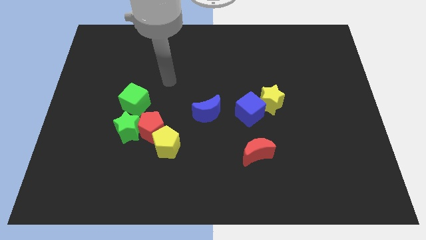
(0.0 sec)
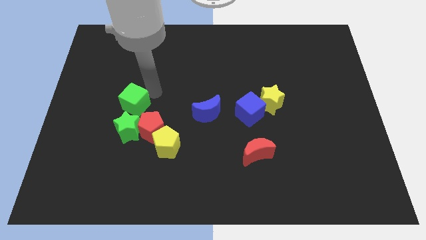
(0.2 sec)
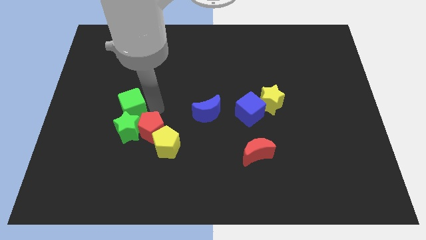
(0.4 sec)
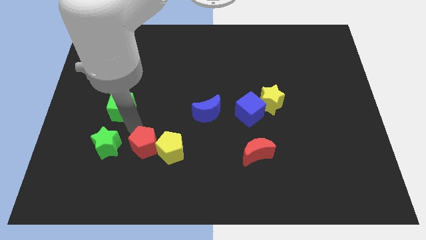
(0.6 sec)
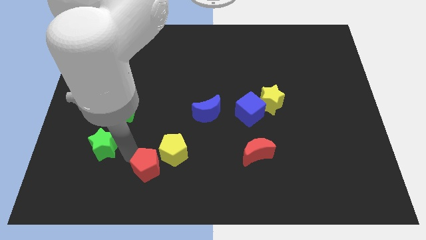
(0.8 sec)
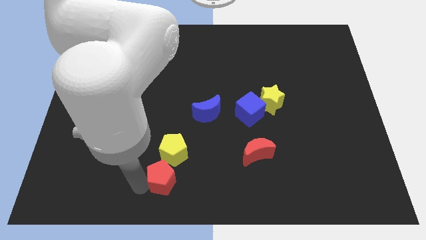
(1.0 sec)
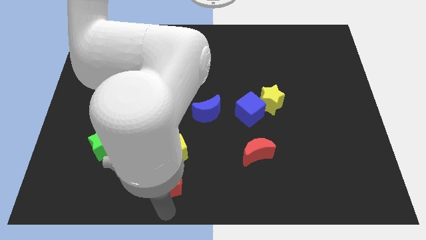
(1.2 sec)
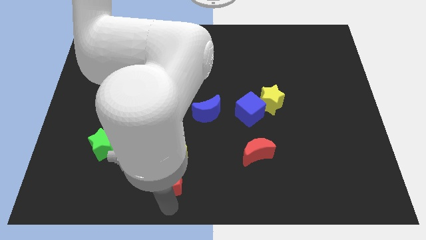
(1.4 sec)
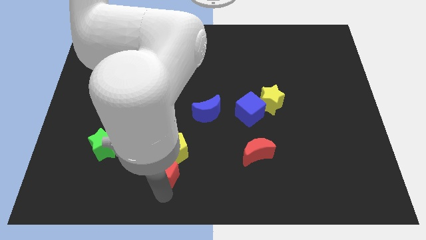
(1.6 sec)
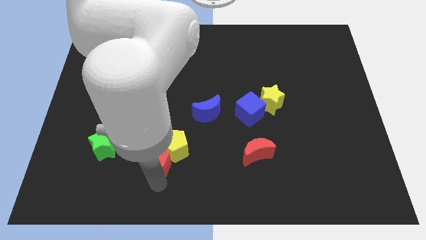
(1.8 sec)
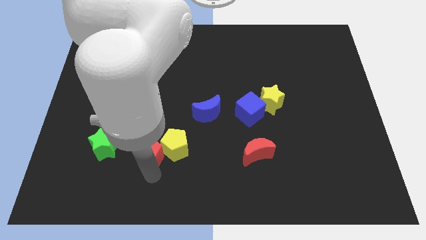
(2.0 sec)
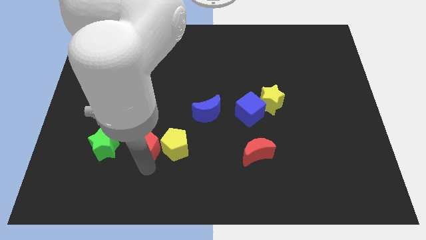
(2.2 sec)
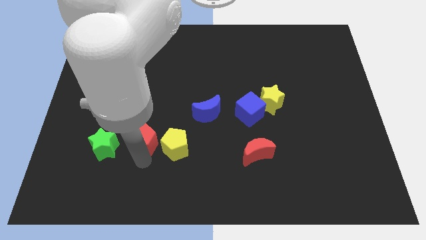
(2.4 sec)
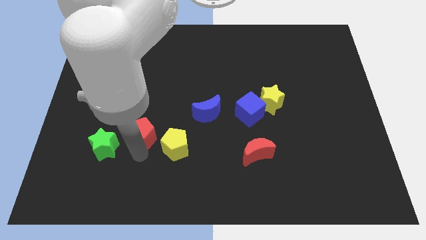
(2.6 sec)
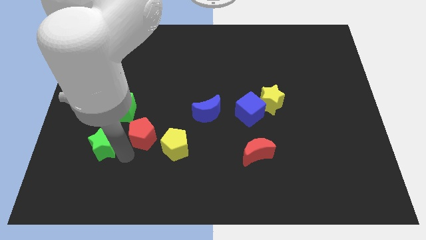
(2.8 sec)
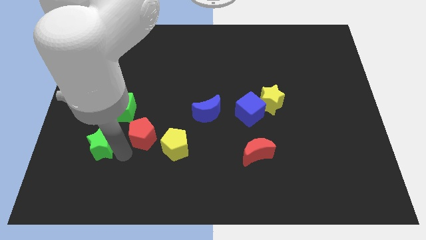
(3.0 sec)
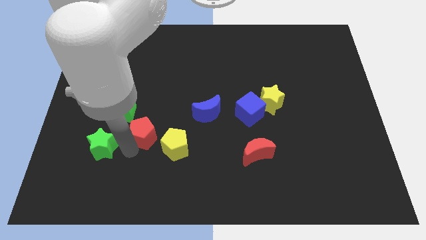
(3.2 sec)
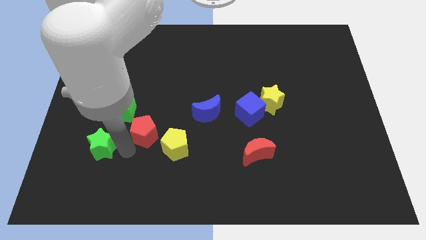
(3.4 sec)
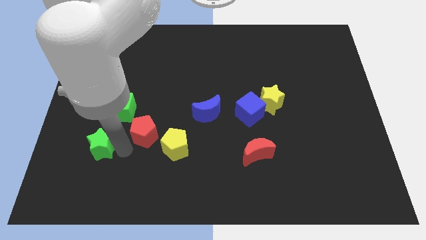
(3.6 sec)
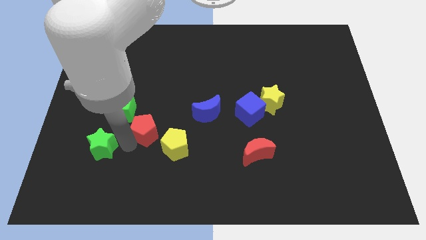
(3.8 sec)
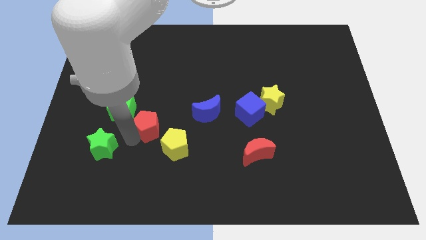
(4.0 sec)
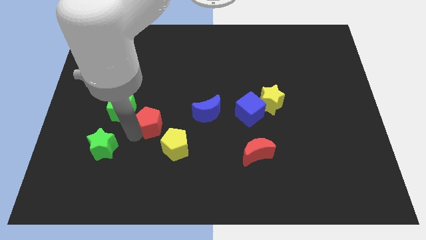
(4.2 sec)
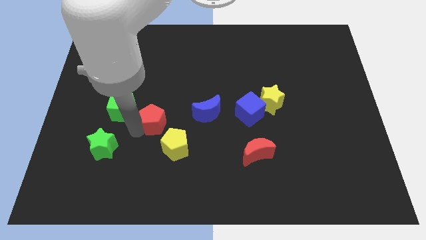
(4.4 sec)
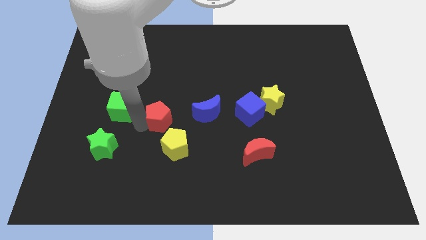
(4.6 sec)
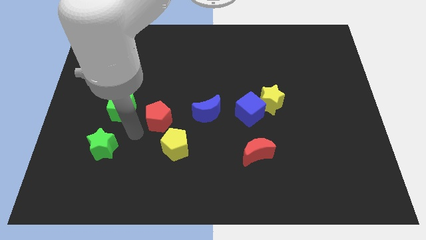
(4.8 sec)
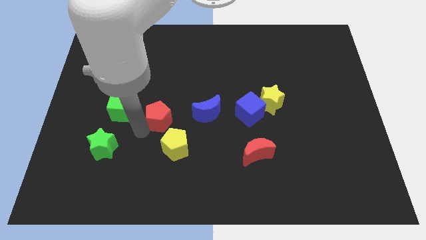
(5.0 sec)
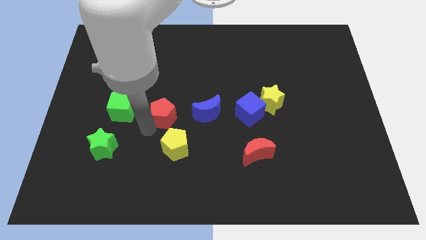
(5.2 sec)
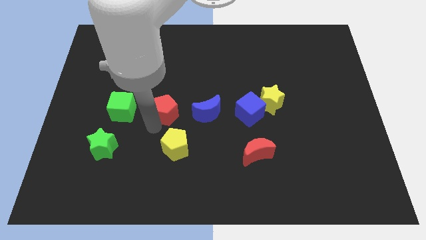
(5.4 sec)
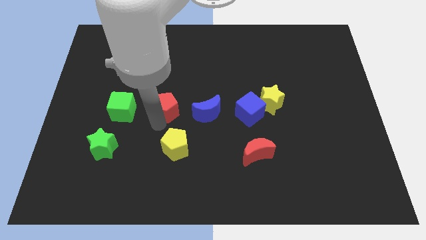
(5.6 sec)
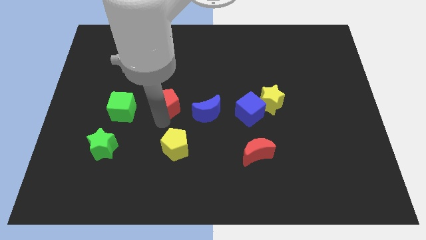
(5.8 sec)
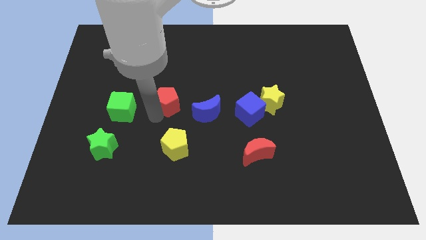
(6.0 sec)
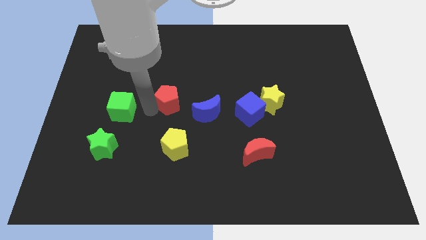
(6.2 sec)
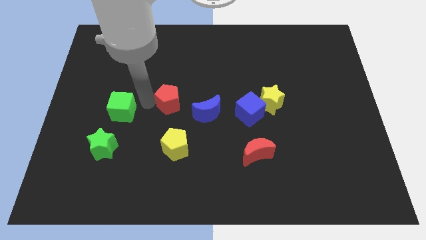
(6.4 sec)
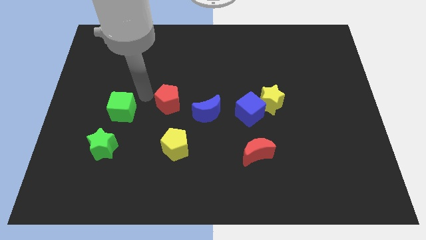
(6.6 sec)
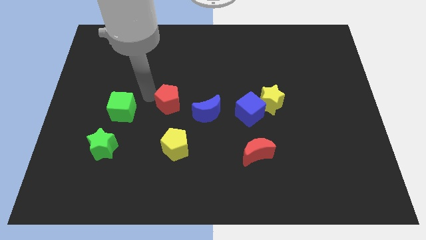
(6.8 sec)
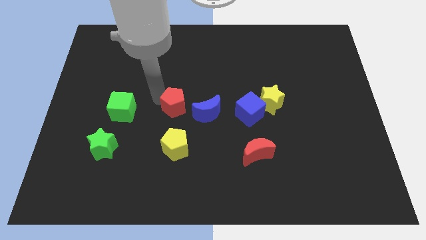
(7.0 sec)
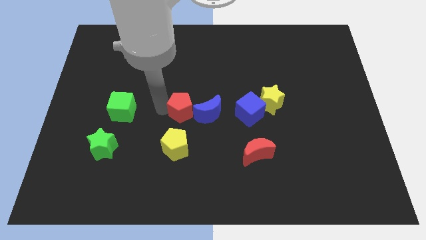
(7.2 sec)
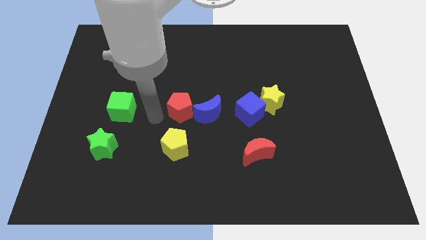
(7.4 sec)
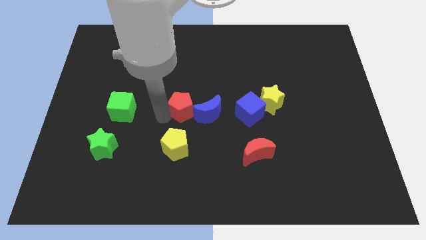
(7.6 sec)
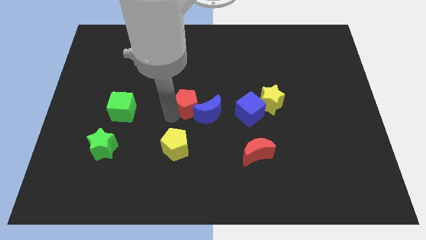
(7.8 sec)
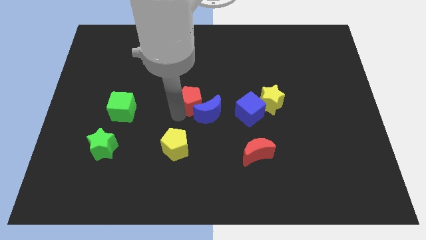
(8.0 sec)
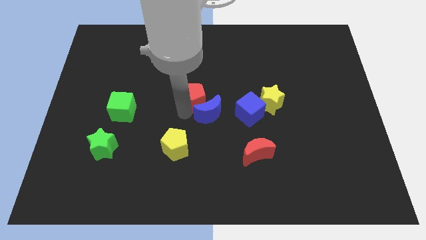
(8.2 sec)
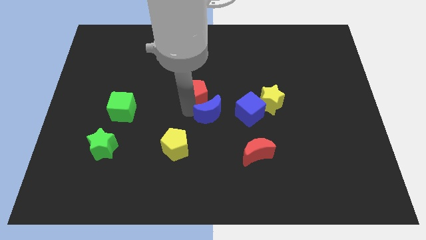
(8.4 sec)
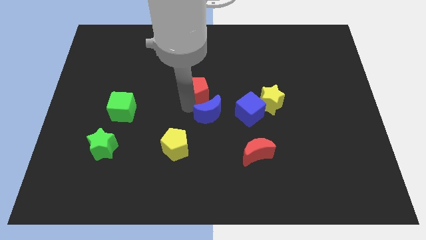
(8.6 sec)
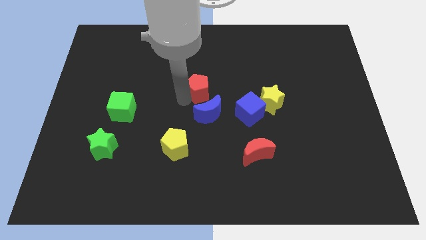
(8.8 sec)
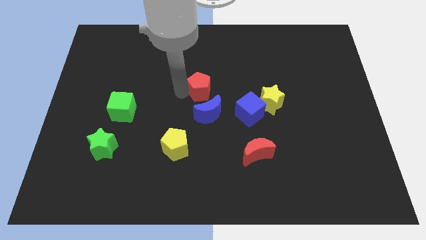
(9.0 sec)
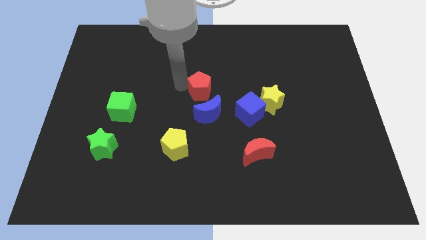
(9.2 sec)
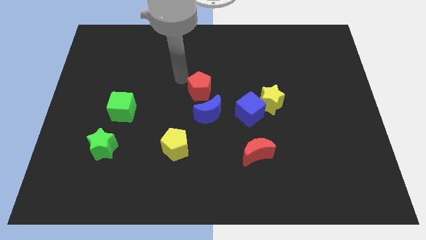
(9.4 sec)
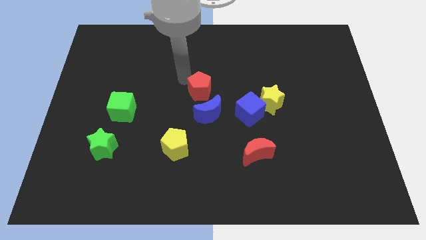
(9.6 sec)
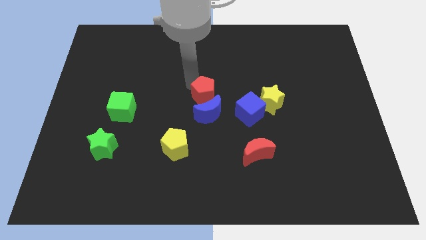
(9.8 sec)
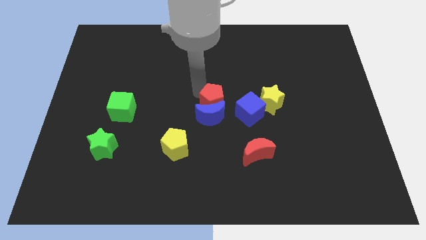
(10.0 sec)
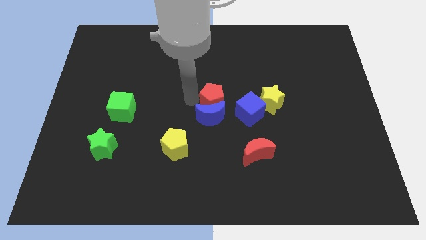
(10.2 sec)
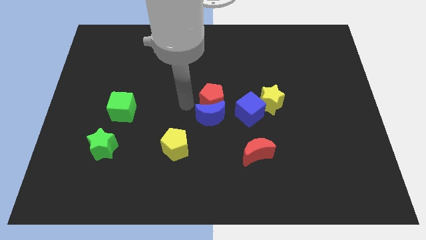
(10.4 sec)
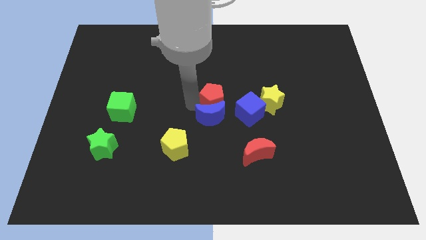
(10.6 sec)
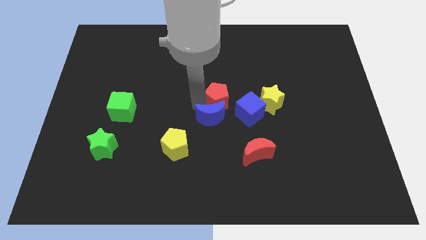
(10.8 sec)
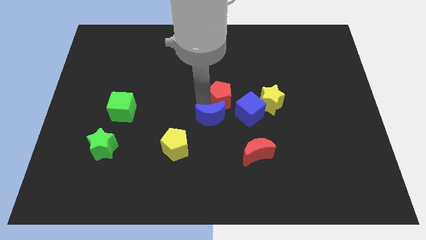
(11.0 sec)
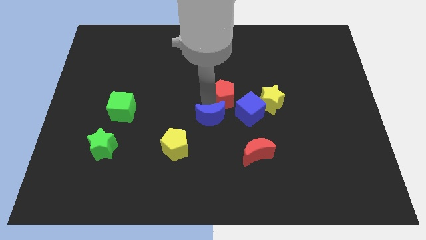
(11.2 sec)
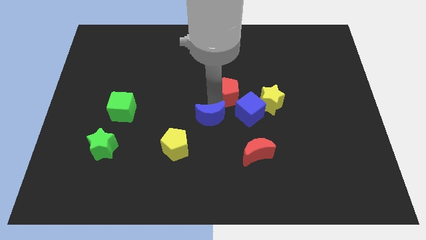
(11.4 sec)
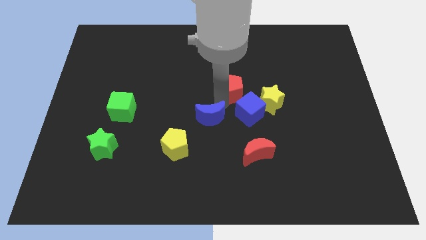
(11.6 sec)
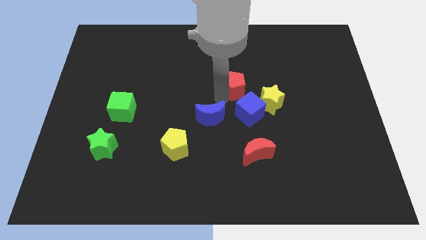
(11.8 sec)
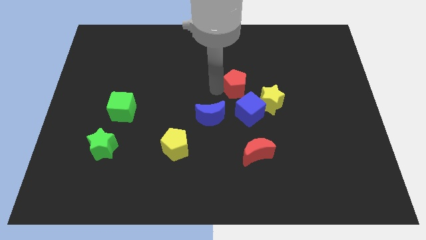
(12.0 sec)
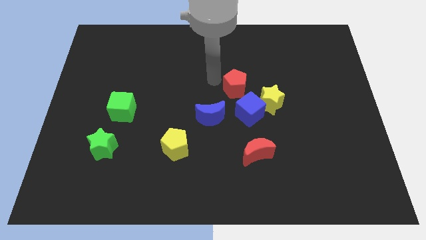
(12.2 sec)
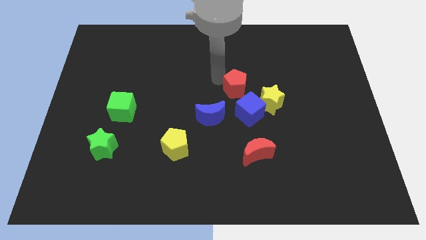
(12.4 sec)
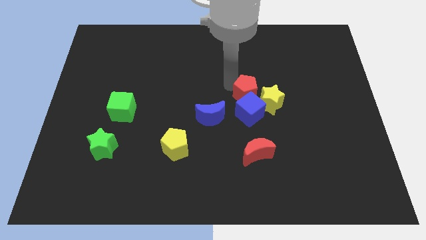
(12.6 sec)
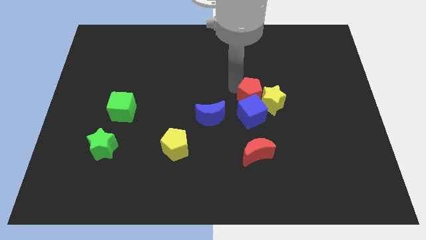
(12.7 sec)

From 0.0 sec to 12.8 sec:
push the red pentagon close to the yellow star

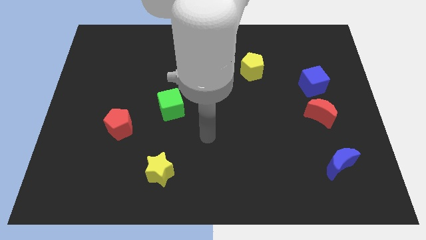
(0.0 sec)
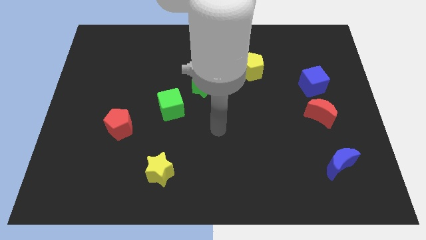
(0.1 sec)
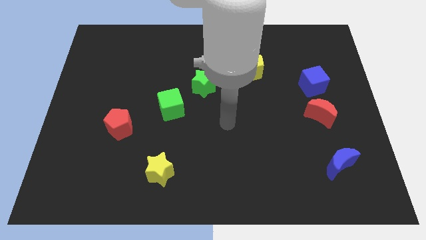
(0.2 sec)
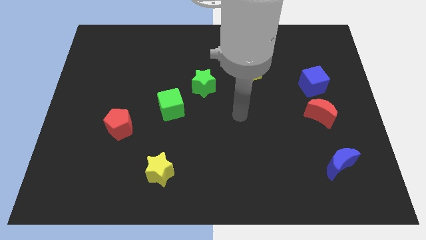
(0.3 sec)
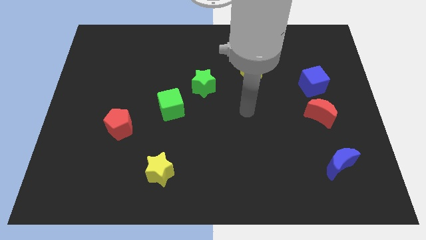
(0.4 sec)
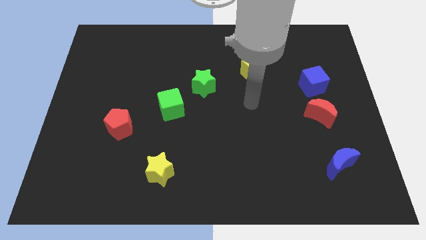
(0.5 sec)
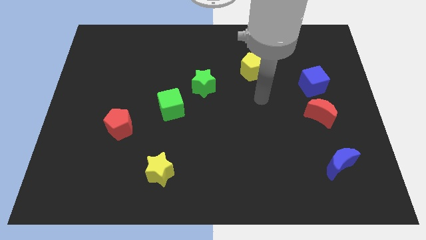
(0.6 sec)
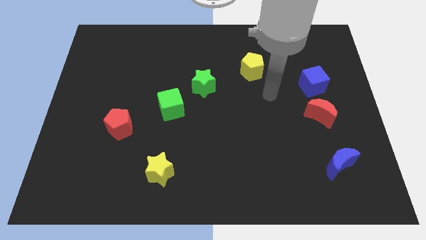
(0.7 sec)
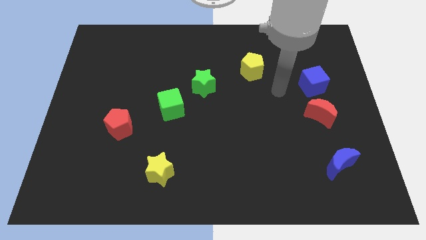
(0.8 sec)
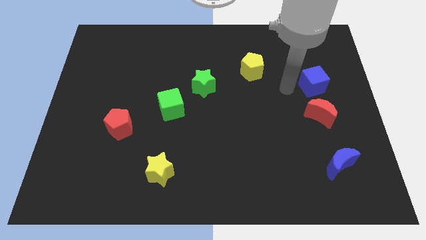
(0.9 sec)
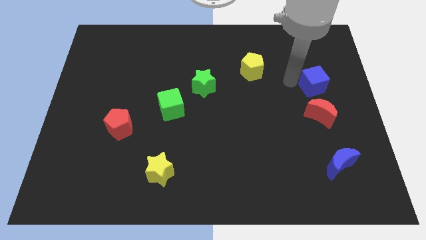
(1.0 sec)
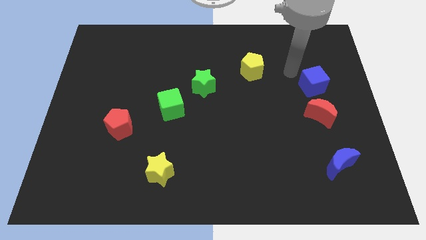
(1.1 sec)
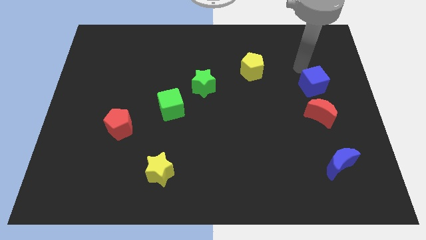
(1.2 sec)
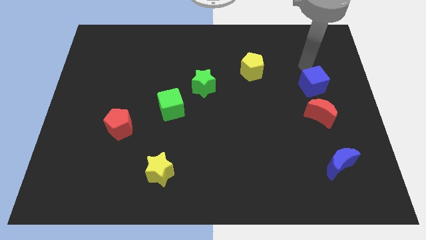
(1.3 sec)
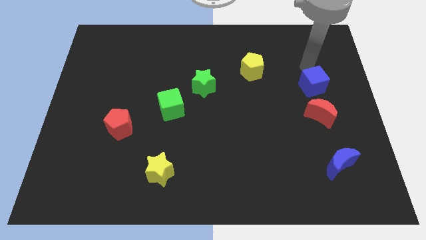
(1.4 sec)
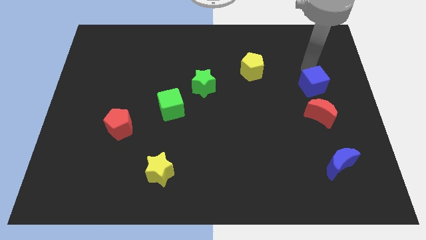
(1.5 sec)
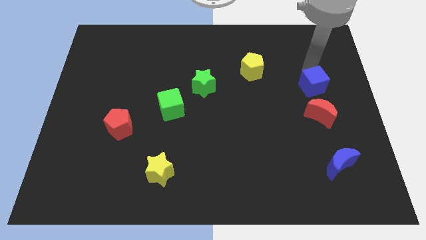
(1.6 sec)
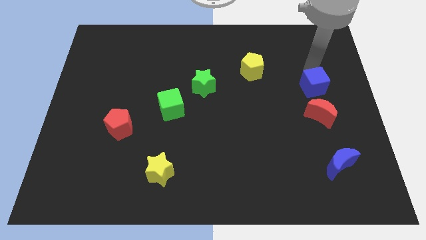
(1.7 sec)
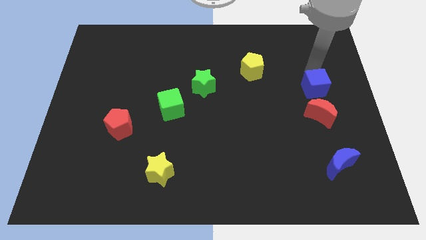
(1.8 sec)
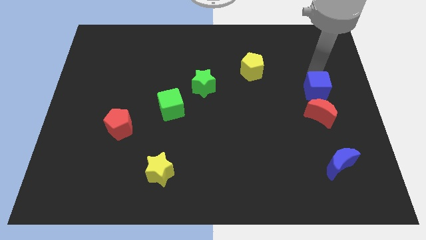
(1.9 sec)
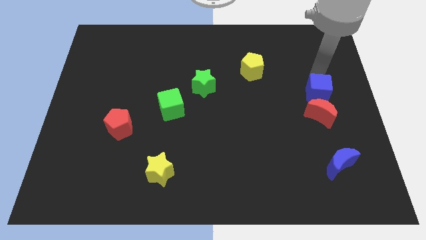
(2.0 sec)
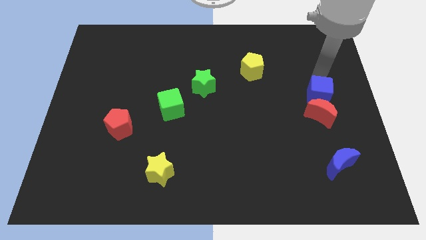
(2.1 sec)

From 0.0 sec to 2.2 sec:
put the blue cube to the red moon
